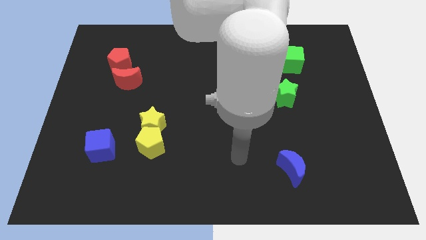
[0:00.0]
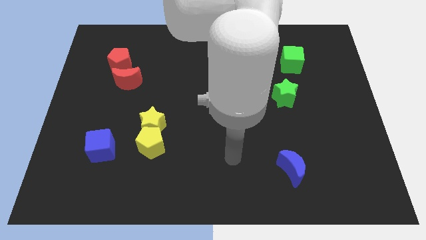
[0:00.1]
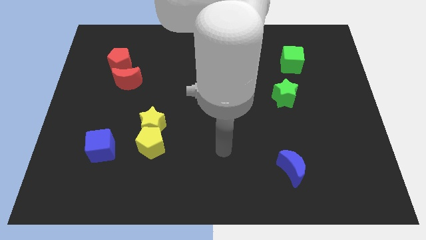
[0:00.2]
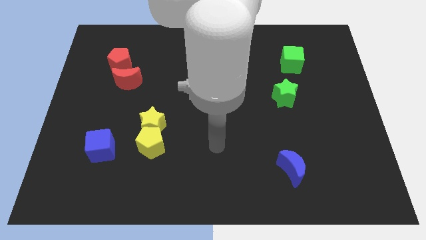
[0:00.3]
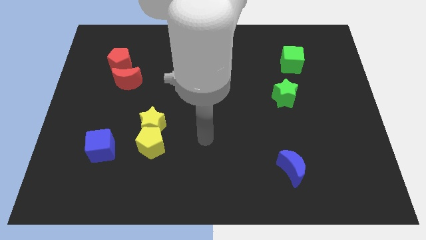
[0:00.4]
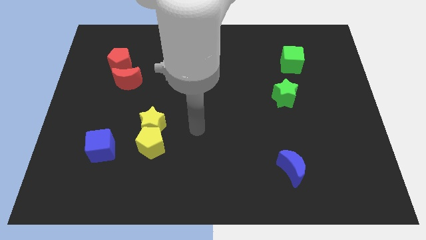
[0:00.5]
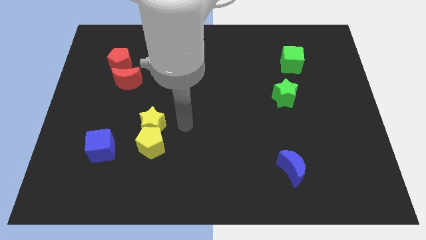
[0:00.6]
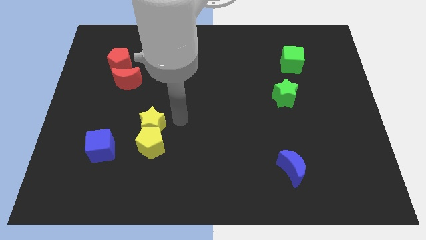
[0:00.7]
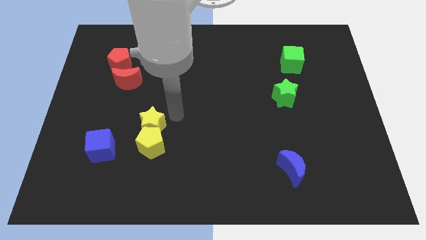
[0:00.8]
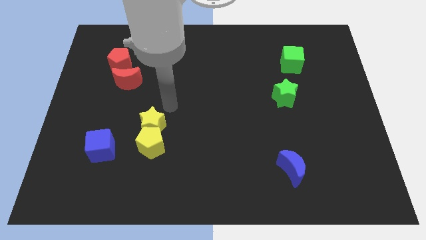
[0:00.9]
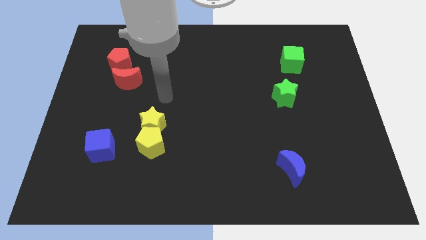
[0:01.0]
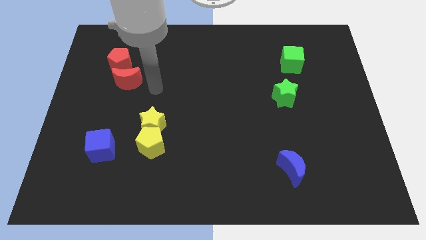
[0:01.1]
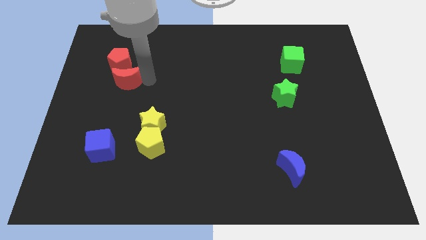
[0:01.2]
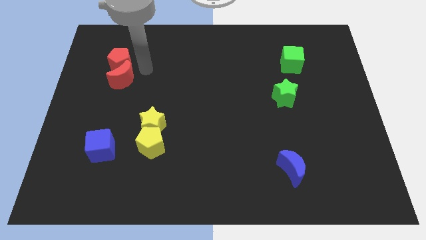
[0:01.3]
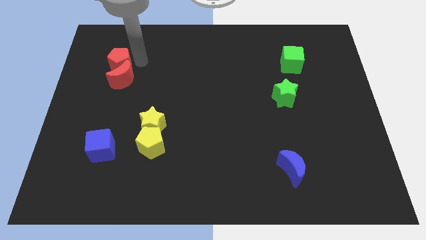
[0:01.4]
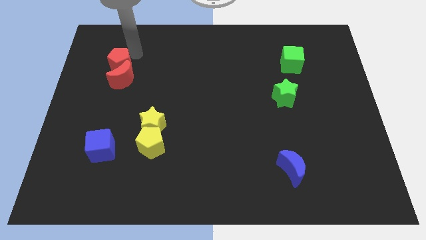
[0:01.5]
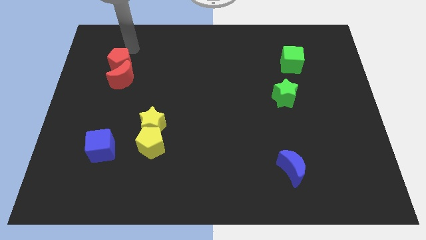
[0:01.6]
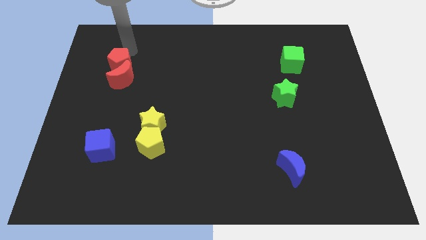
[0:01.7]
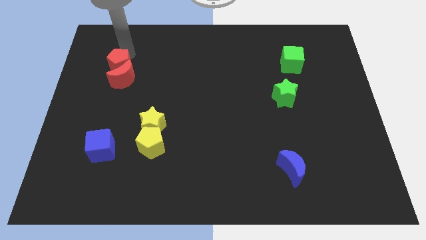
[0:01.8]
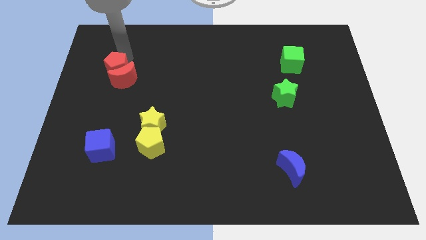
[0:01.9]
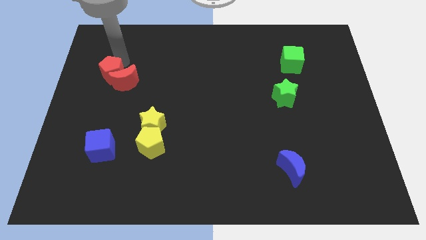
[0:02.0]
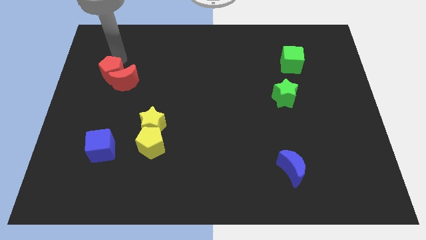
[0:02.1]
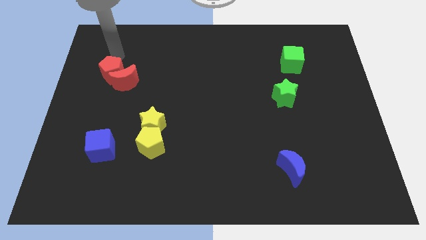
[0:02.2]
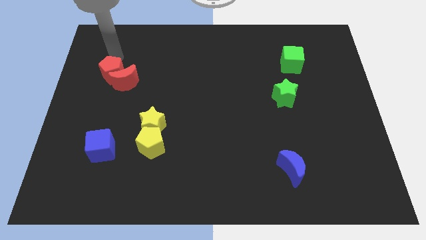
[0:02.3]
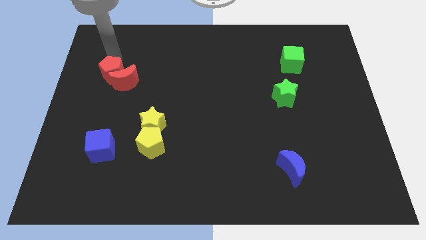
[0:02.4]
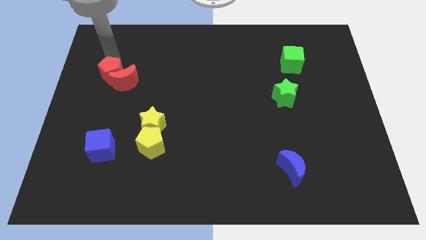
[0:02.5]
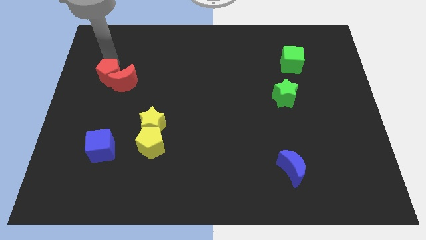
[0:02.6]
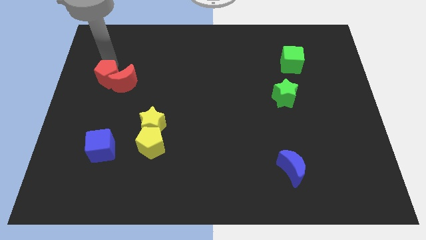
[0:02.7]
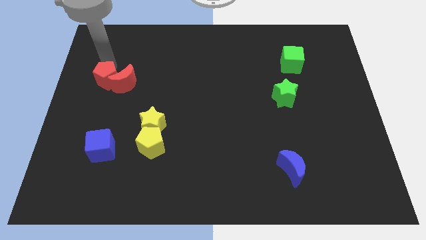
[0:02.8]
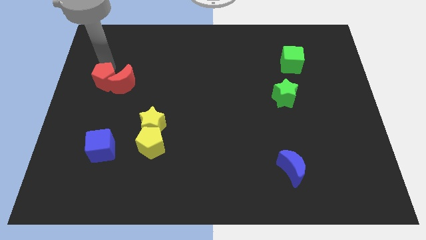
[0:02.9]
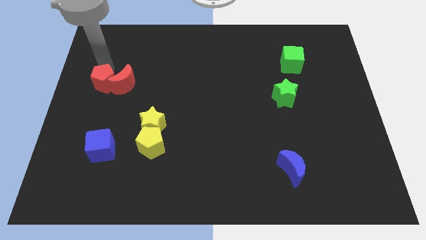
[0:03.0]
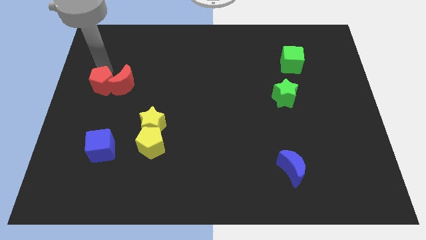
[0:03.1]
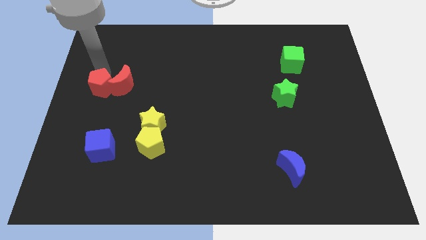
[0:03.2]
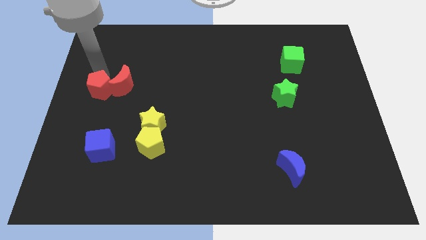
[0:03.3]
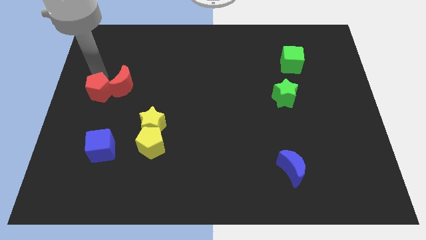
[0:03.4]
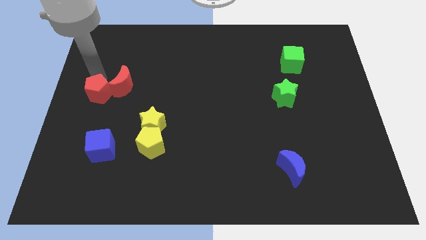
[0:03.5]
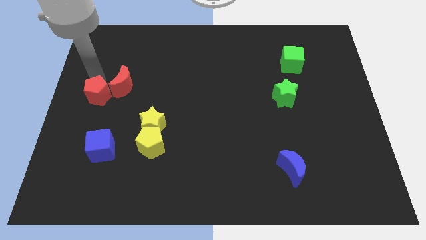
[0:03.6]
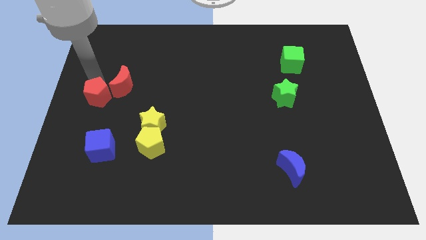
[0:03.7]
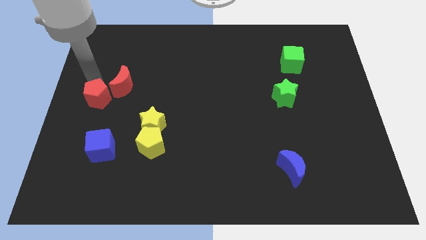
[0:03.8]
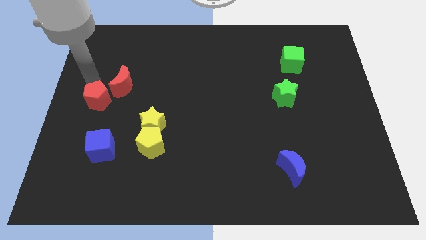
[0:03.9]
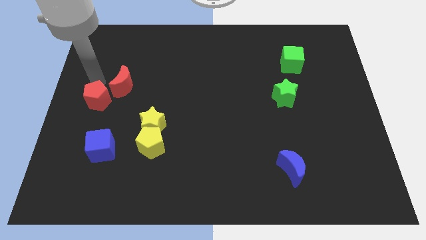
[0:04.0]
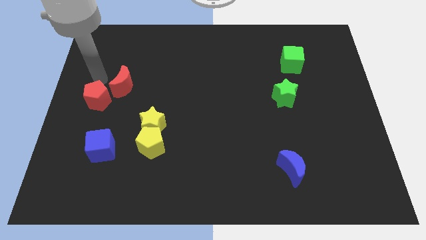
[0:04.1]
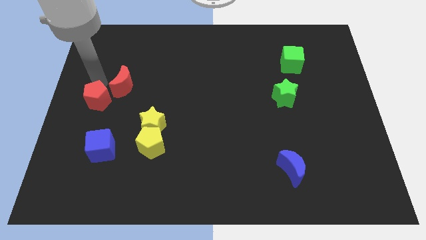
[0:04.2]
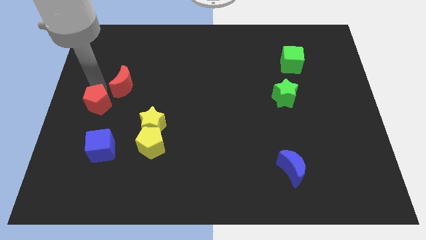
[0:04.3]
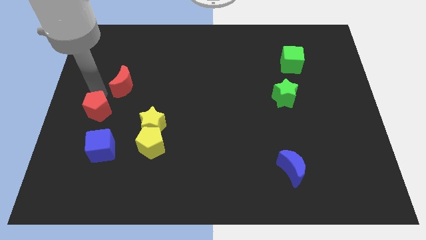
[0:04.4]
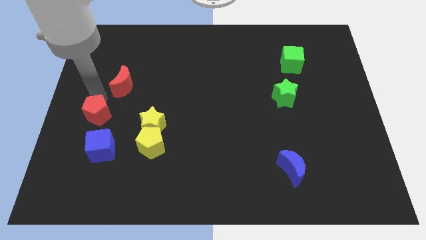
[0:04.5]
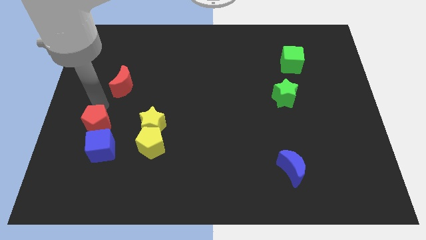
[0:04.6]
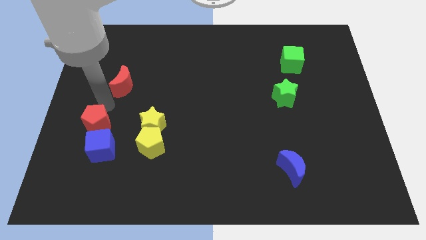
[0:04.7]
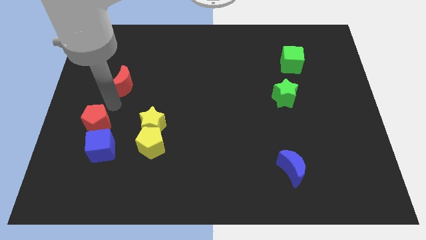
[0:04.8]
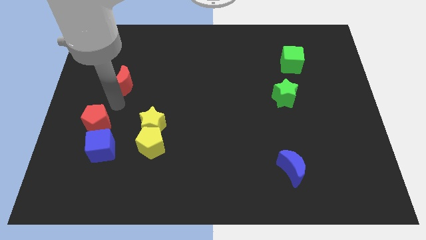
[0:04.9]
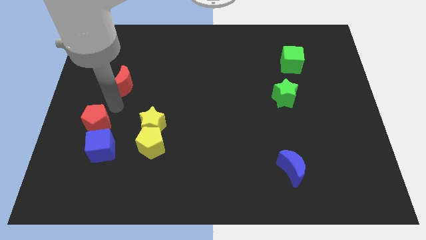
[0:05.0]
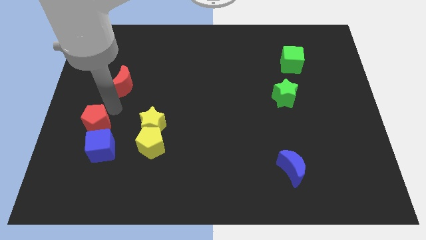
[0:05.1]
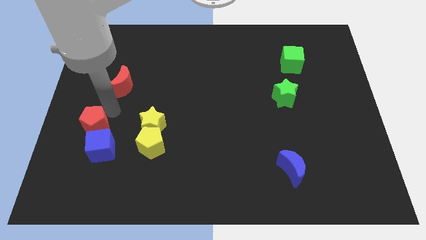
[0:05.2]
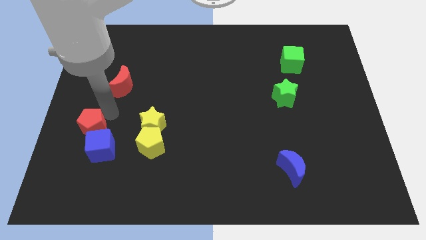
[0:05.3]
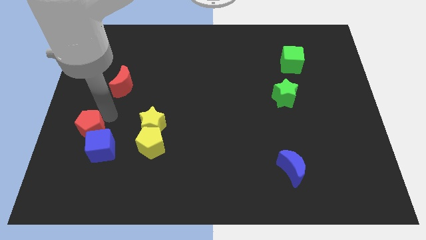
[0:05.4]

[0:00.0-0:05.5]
slide the red pentagon downwards

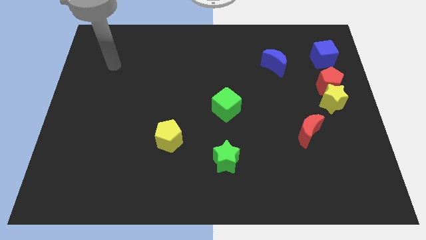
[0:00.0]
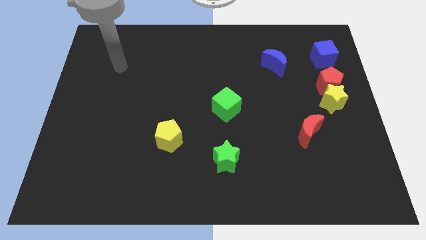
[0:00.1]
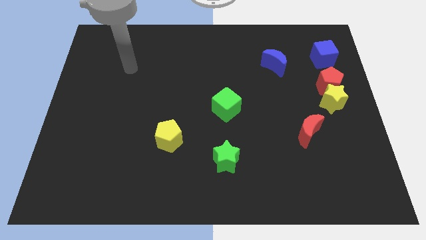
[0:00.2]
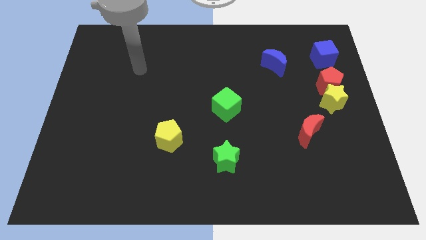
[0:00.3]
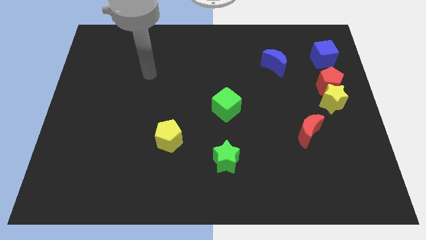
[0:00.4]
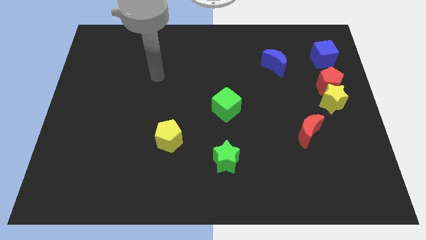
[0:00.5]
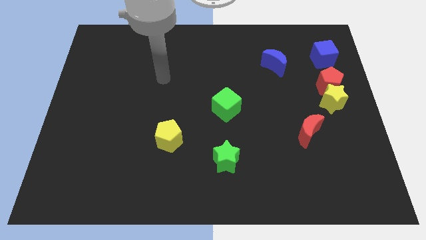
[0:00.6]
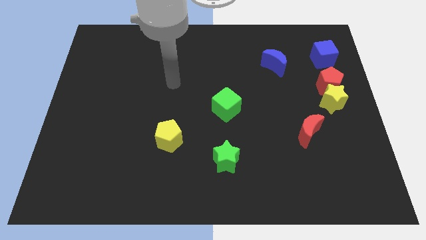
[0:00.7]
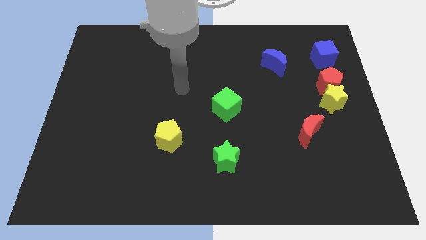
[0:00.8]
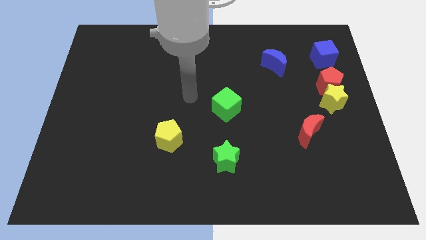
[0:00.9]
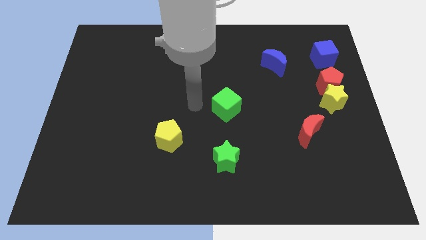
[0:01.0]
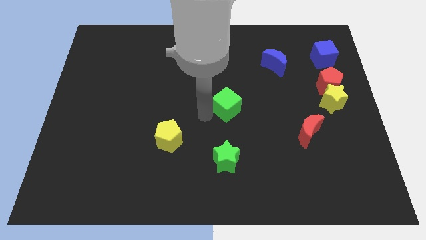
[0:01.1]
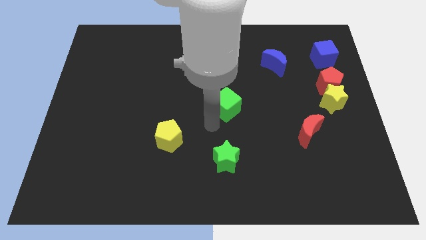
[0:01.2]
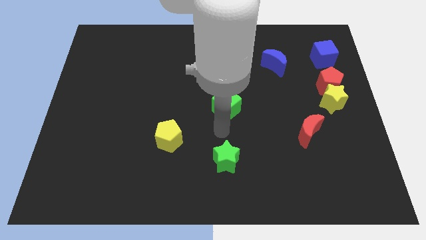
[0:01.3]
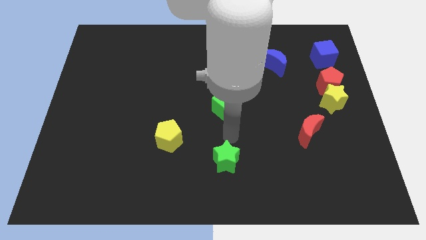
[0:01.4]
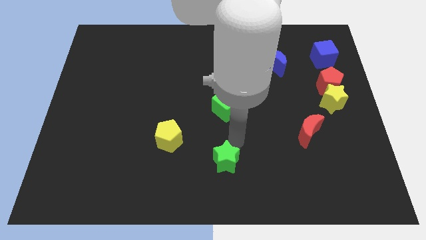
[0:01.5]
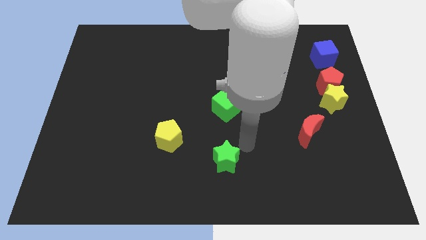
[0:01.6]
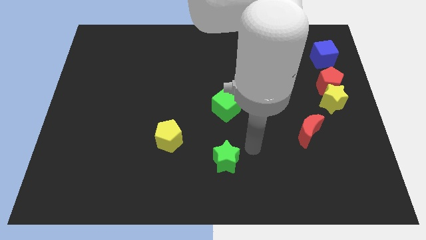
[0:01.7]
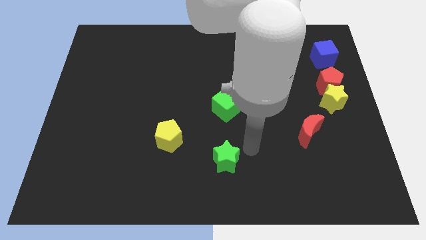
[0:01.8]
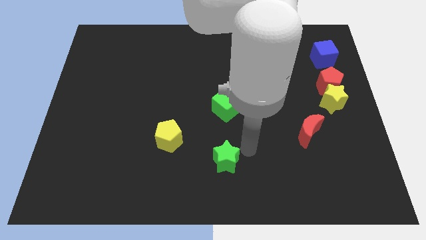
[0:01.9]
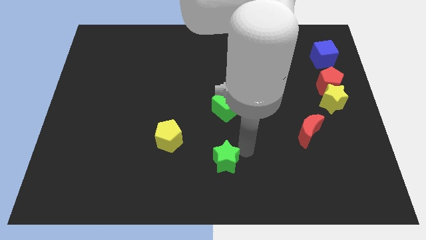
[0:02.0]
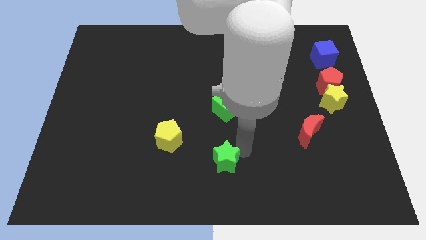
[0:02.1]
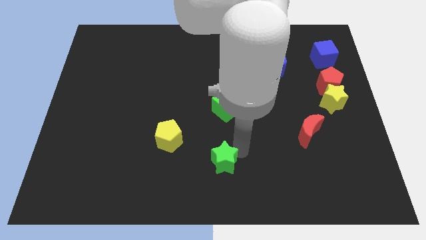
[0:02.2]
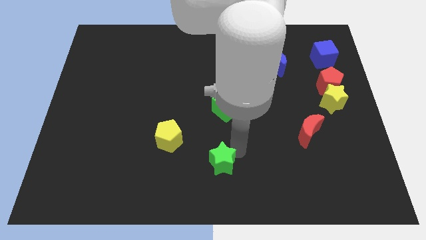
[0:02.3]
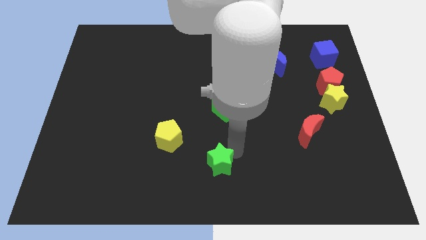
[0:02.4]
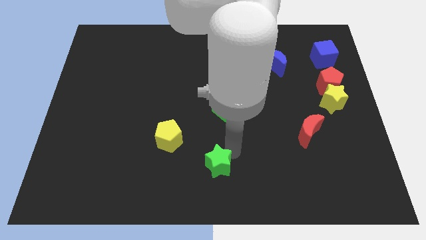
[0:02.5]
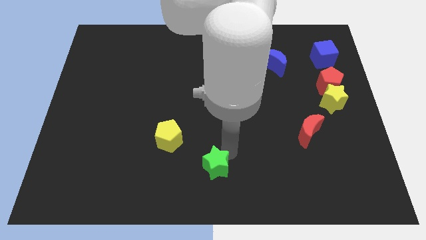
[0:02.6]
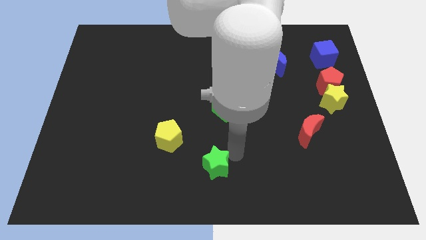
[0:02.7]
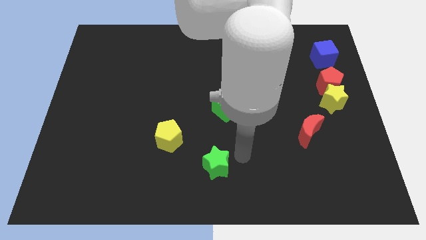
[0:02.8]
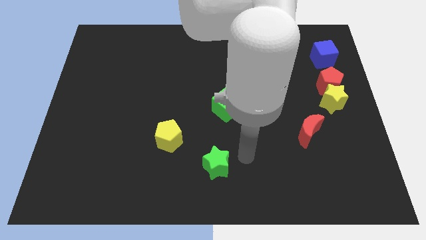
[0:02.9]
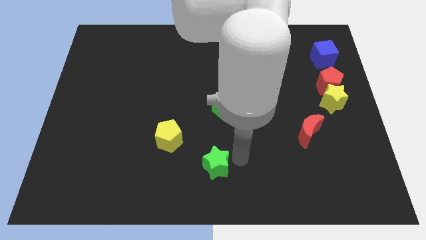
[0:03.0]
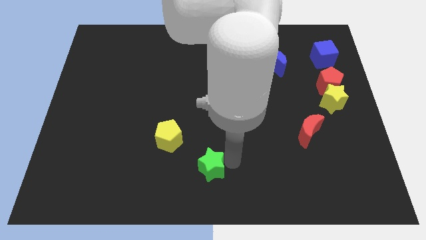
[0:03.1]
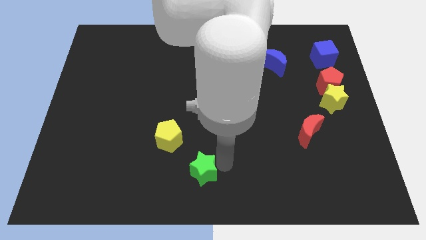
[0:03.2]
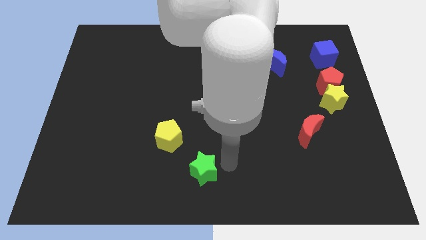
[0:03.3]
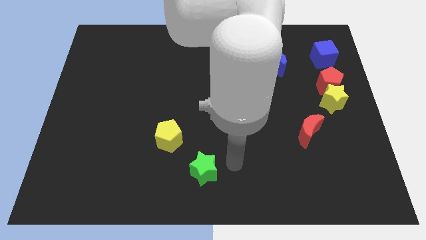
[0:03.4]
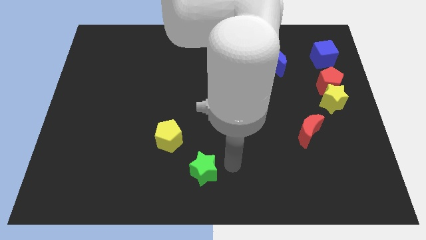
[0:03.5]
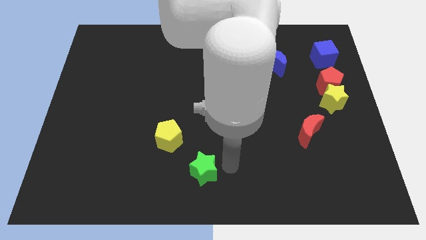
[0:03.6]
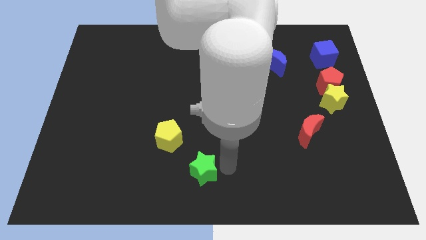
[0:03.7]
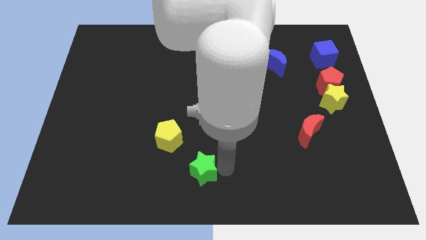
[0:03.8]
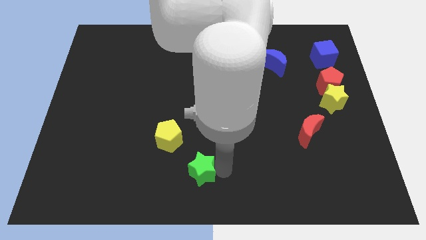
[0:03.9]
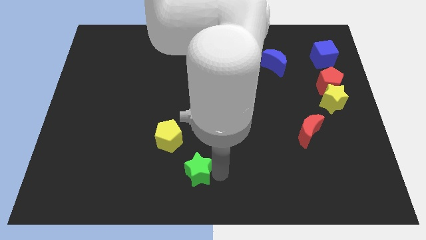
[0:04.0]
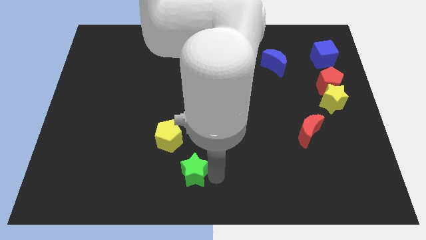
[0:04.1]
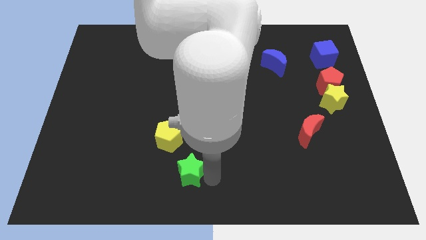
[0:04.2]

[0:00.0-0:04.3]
slightly move the green star to the left
